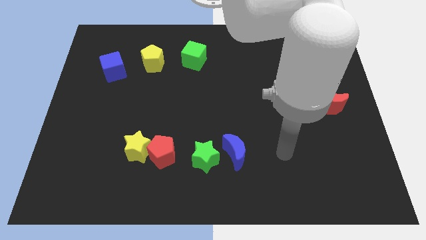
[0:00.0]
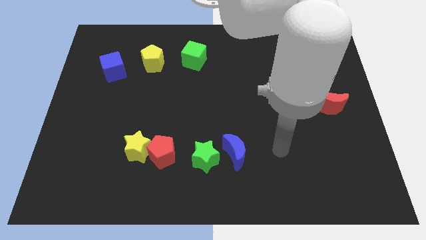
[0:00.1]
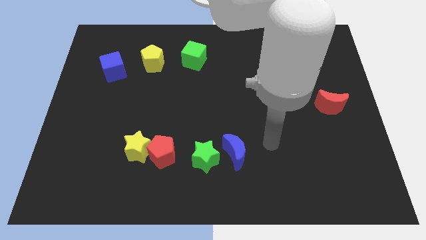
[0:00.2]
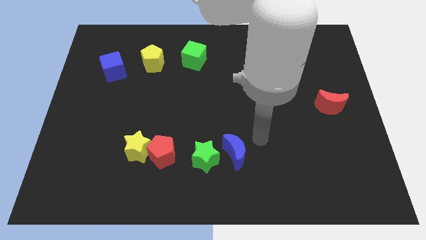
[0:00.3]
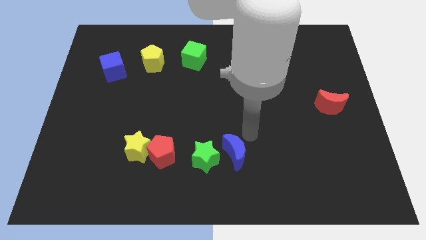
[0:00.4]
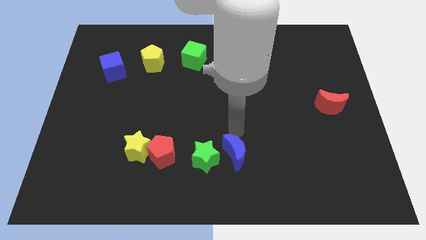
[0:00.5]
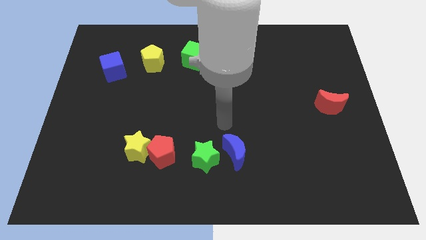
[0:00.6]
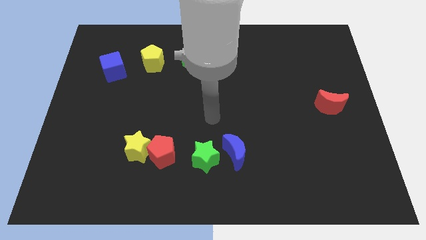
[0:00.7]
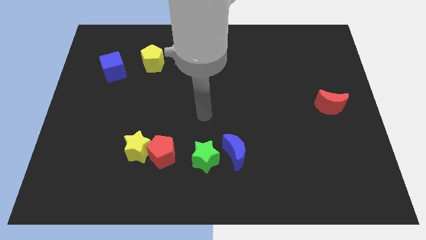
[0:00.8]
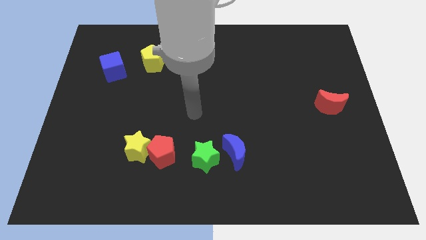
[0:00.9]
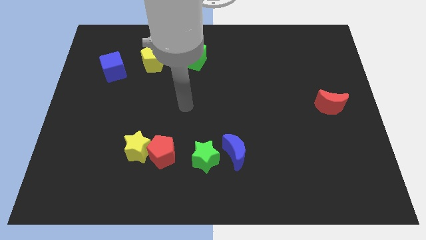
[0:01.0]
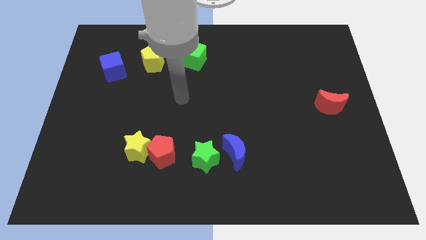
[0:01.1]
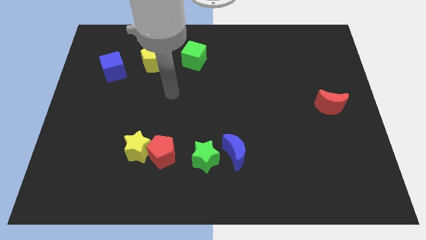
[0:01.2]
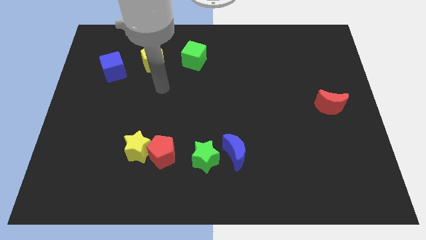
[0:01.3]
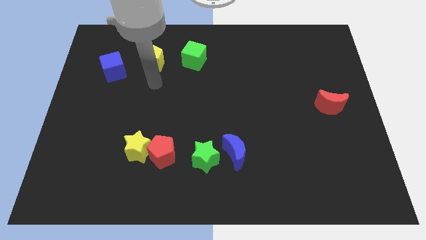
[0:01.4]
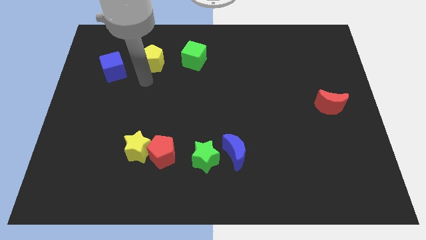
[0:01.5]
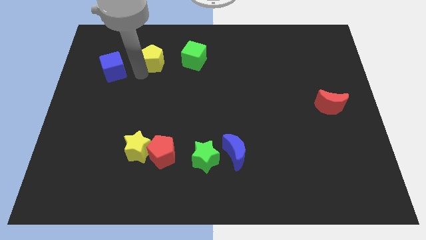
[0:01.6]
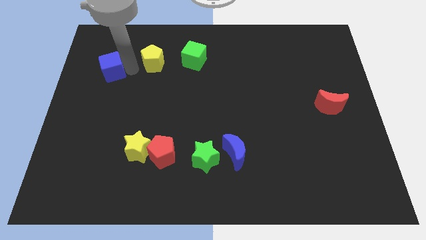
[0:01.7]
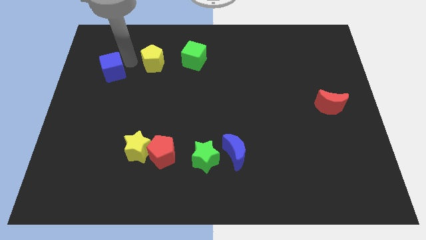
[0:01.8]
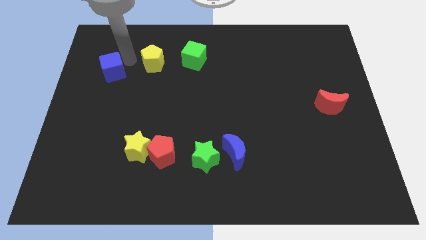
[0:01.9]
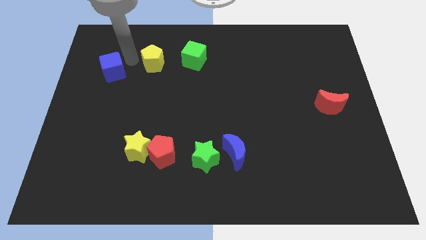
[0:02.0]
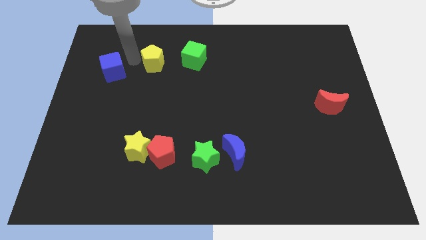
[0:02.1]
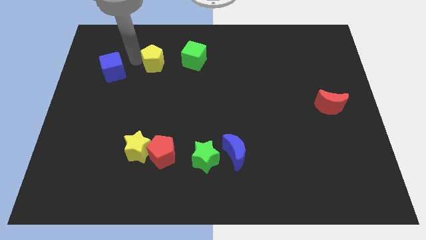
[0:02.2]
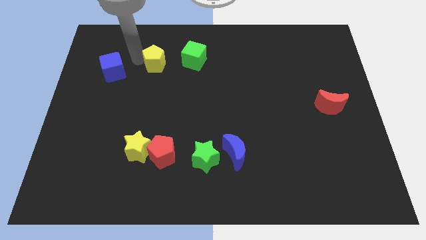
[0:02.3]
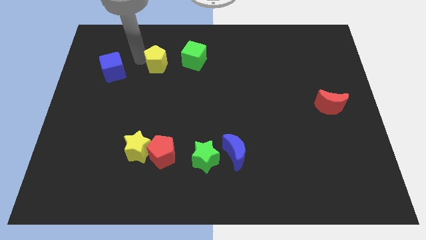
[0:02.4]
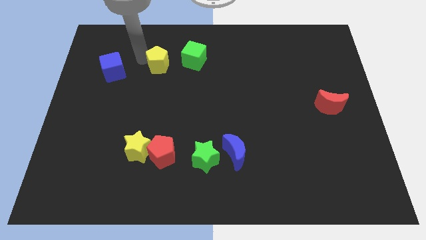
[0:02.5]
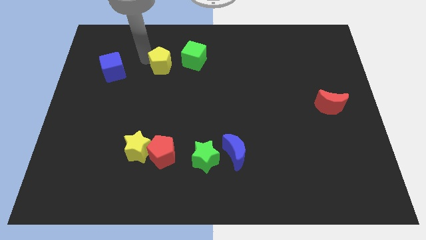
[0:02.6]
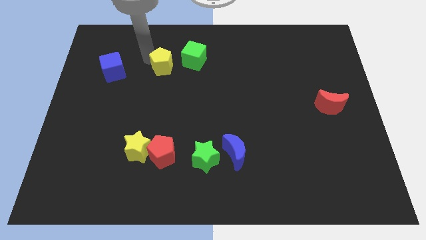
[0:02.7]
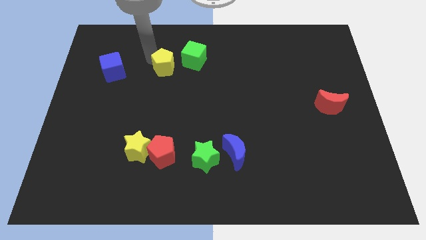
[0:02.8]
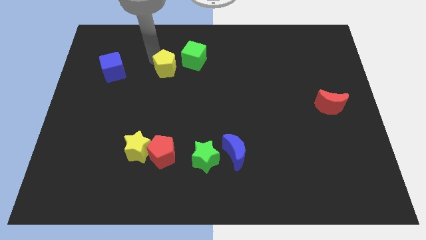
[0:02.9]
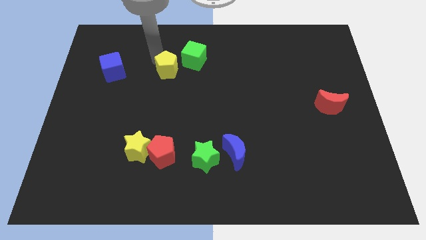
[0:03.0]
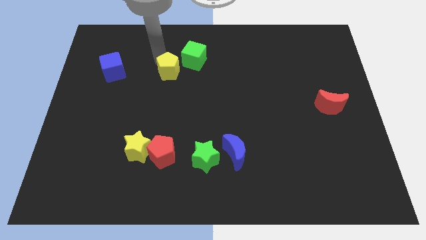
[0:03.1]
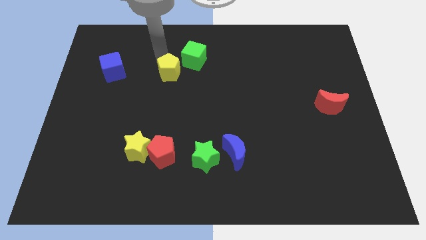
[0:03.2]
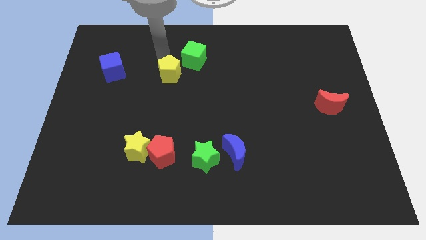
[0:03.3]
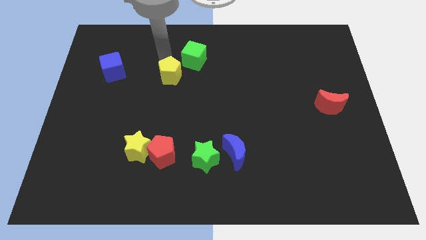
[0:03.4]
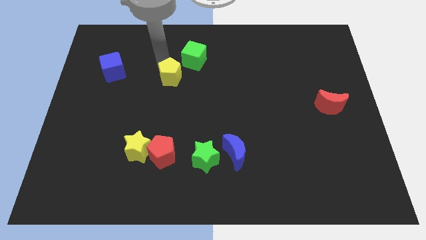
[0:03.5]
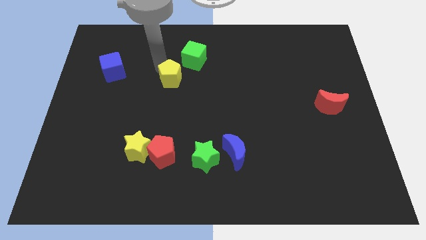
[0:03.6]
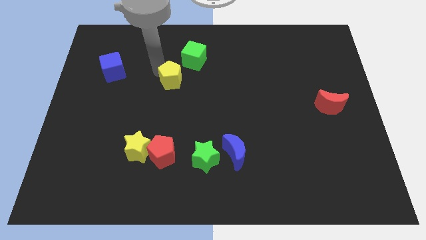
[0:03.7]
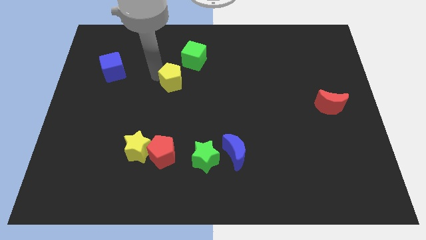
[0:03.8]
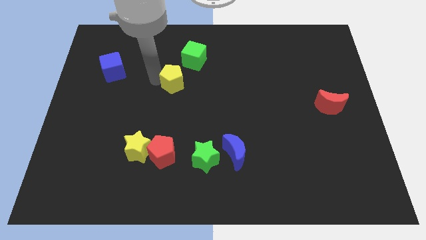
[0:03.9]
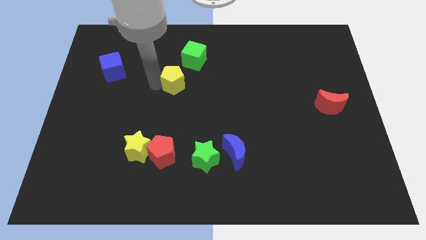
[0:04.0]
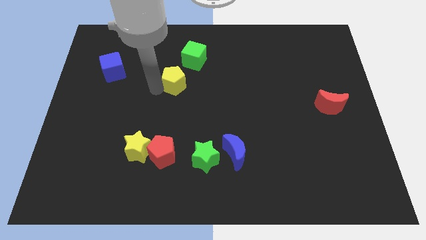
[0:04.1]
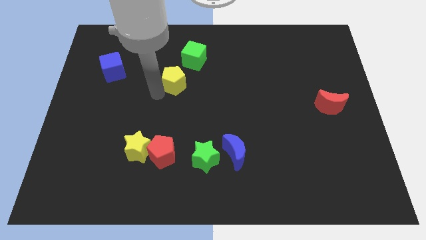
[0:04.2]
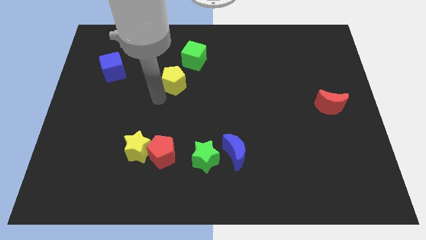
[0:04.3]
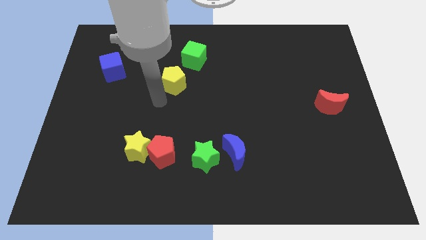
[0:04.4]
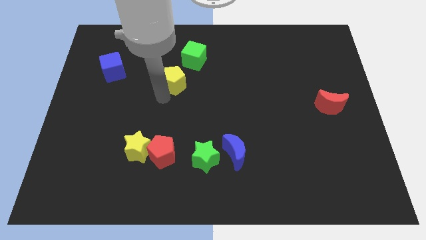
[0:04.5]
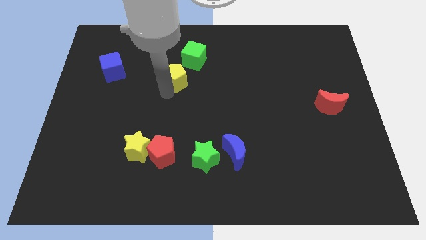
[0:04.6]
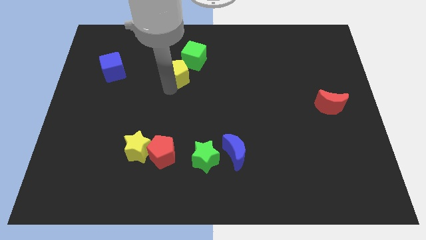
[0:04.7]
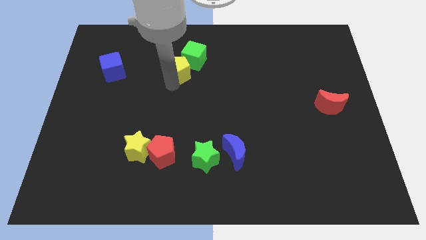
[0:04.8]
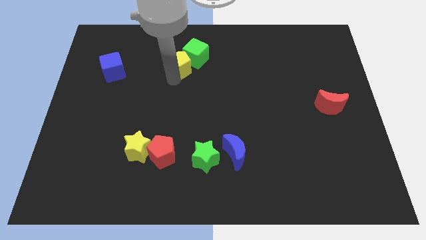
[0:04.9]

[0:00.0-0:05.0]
slightly push the yellow pentagon to the right

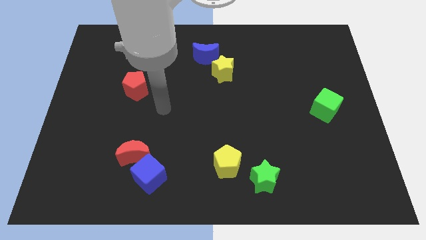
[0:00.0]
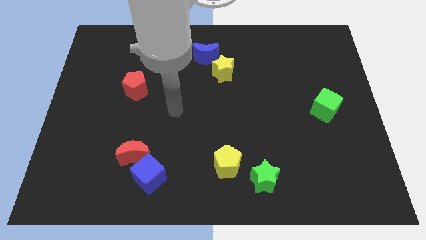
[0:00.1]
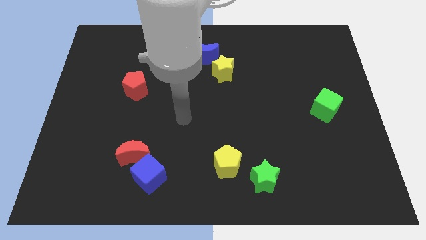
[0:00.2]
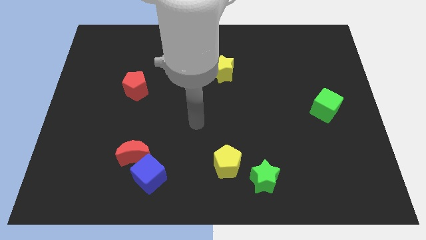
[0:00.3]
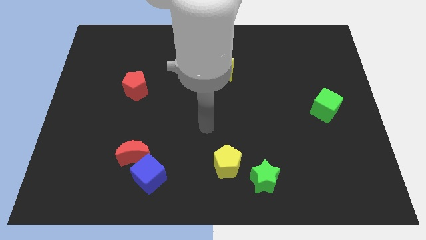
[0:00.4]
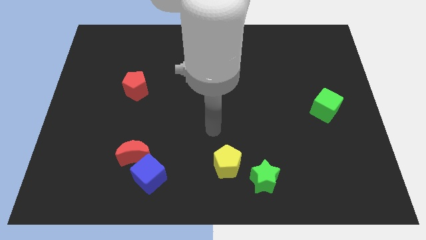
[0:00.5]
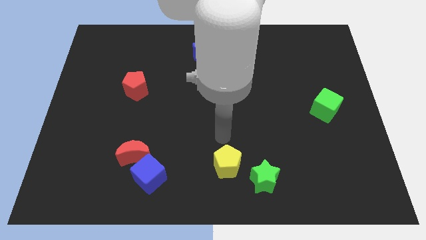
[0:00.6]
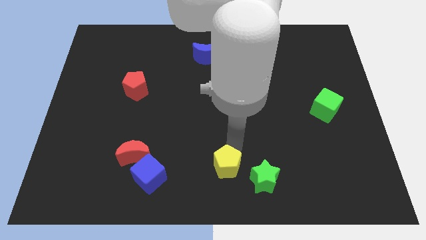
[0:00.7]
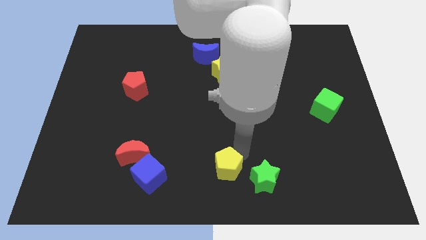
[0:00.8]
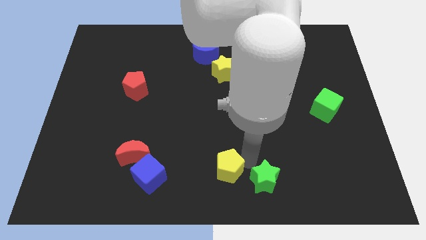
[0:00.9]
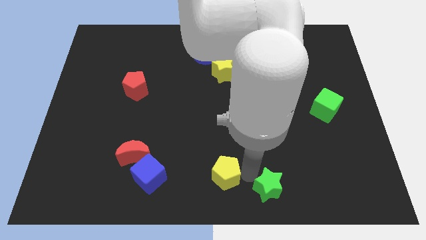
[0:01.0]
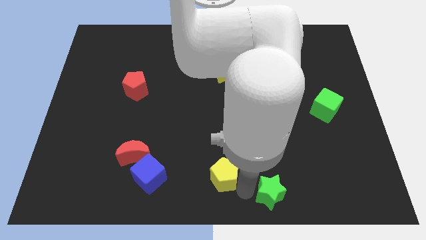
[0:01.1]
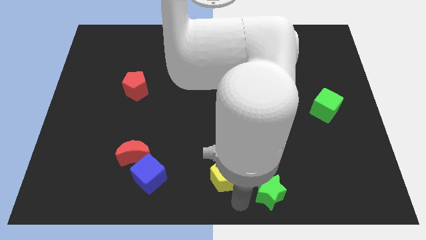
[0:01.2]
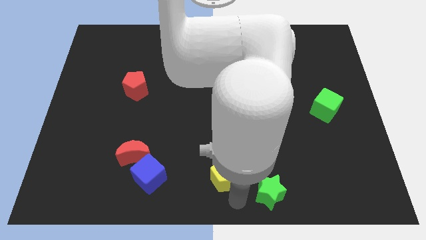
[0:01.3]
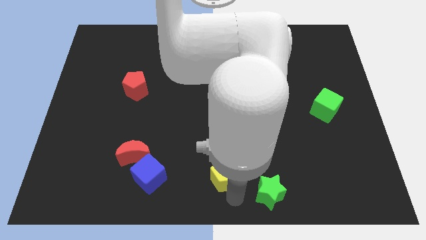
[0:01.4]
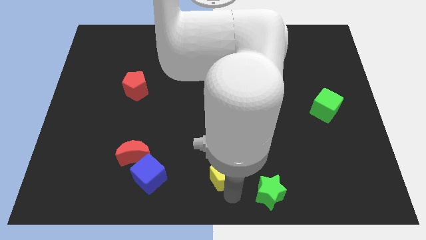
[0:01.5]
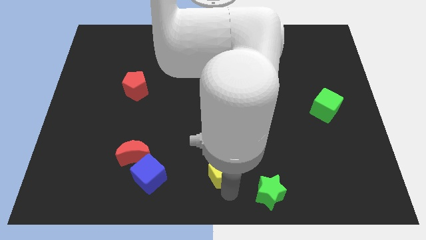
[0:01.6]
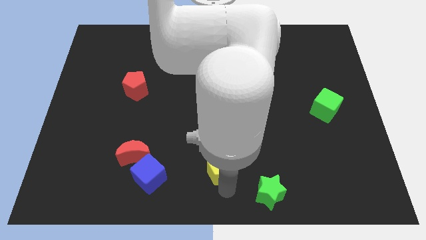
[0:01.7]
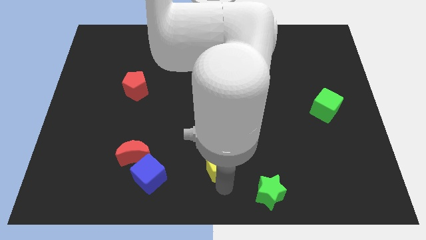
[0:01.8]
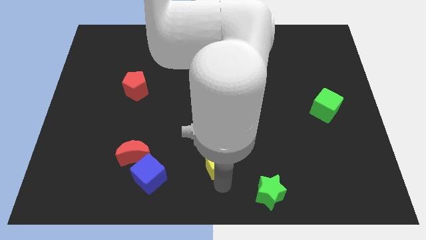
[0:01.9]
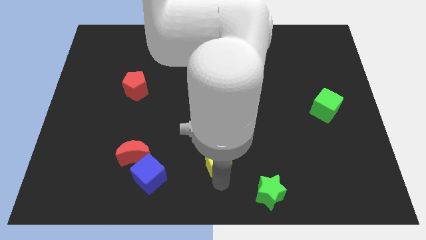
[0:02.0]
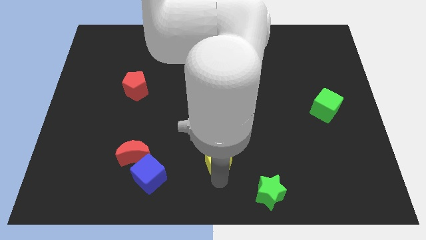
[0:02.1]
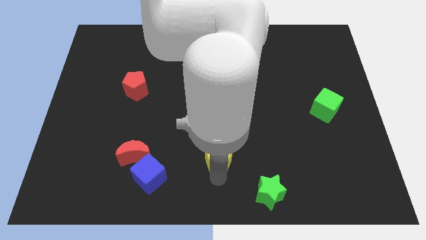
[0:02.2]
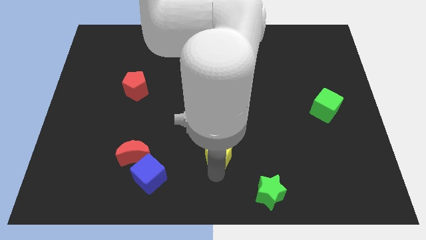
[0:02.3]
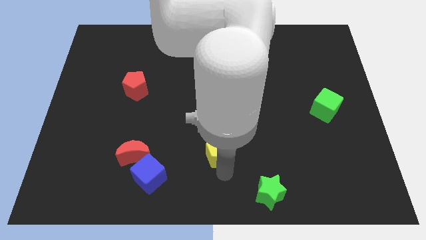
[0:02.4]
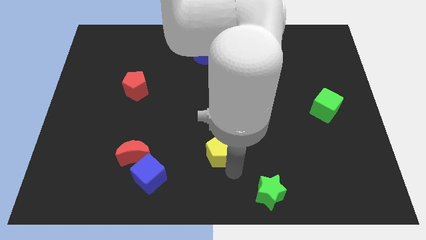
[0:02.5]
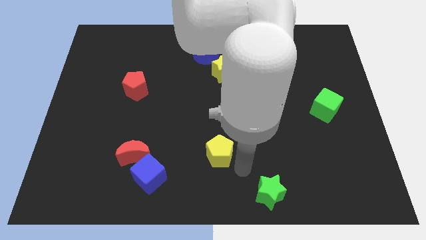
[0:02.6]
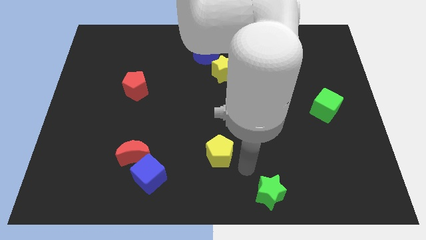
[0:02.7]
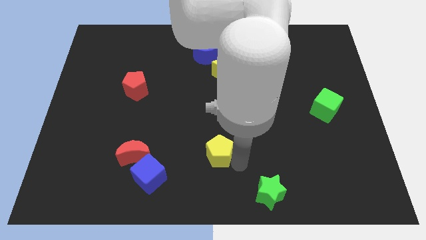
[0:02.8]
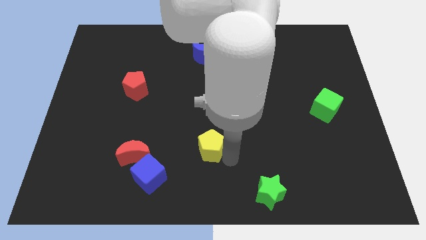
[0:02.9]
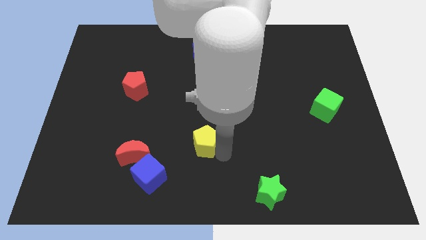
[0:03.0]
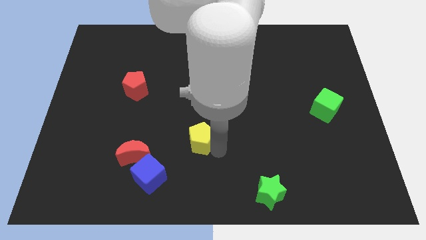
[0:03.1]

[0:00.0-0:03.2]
slightly push the yellow pentagon up and left diagonally
